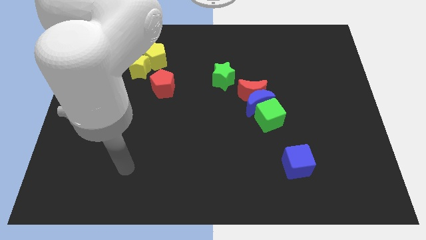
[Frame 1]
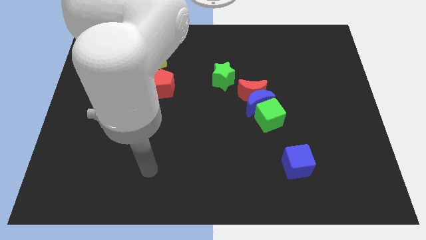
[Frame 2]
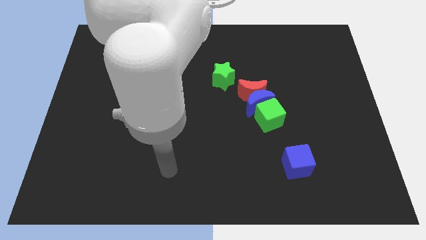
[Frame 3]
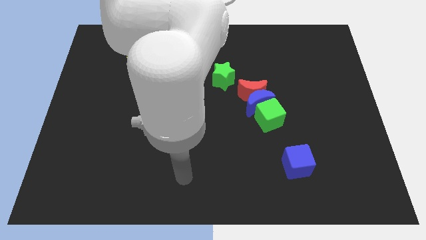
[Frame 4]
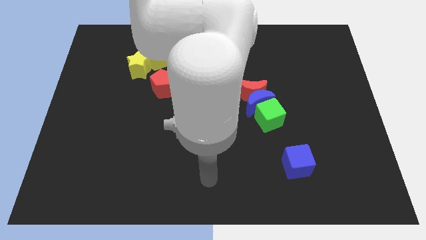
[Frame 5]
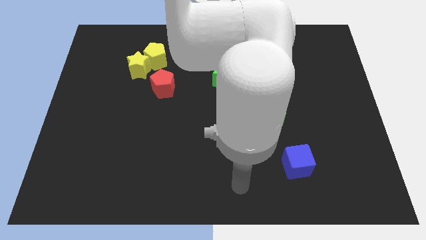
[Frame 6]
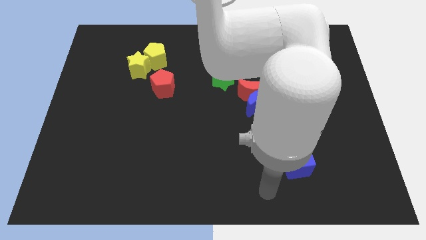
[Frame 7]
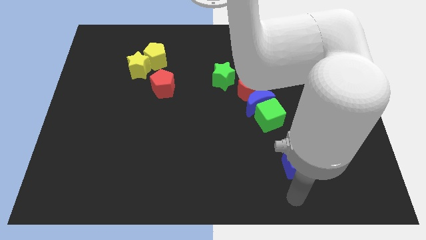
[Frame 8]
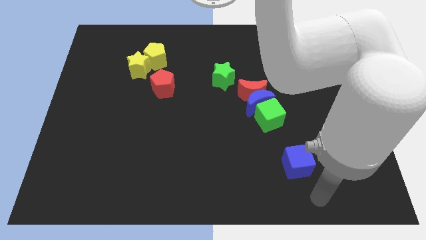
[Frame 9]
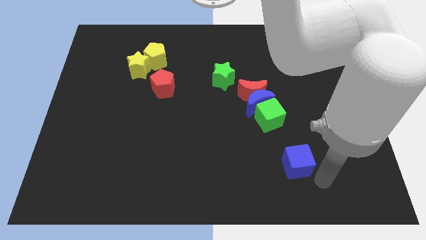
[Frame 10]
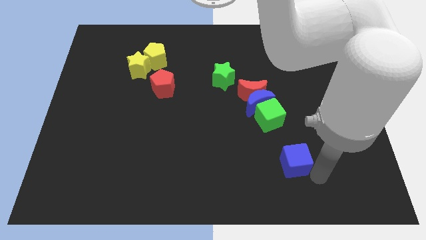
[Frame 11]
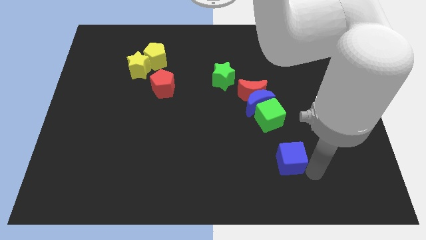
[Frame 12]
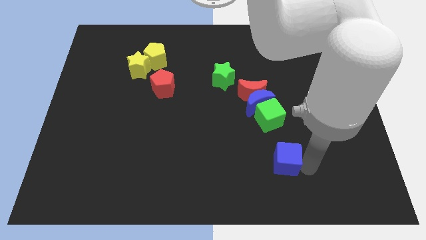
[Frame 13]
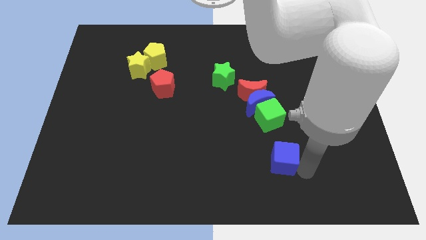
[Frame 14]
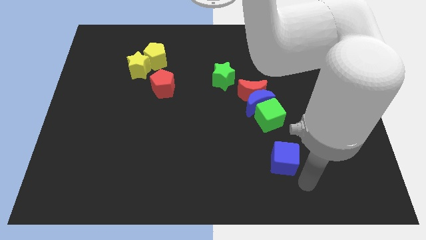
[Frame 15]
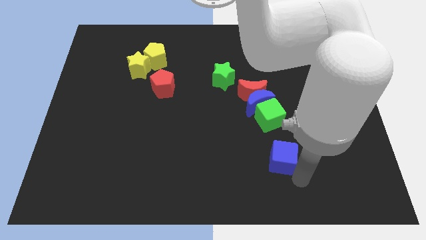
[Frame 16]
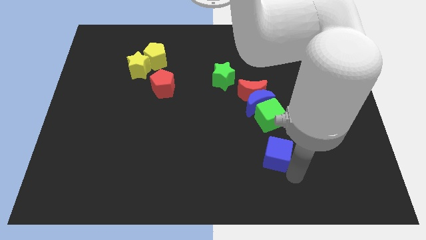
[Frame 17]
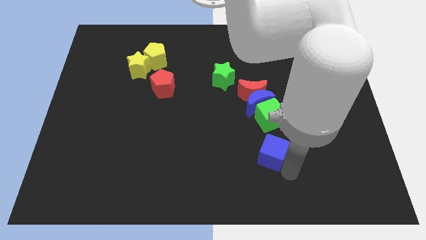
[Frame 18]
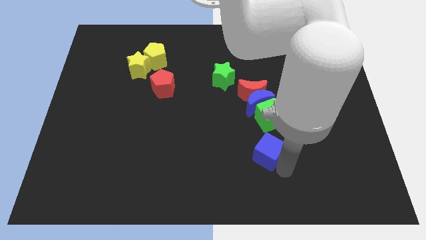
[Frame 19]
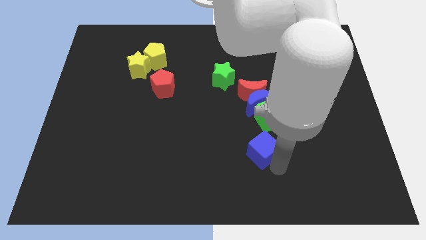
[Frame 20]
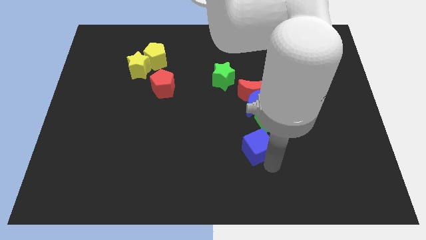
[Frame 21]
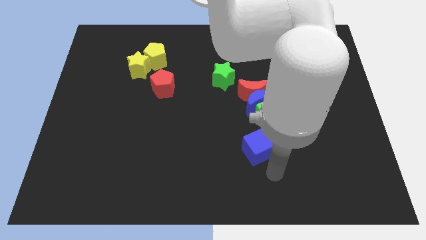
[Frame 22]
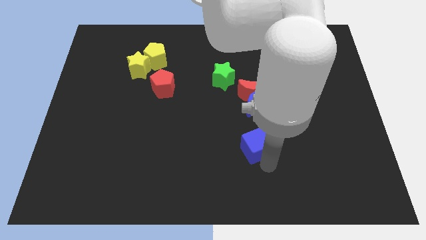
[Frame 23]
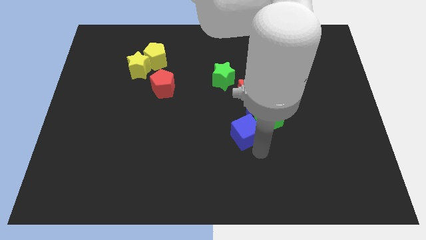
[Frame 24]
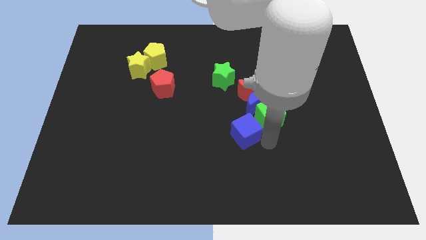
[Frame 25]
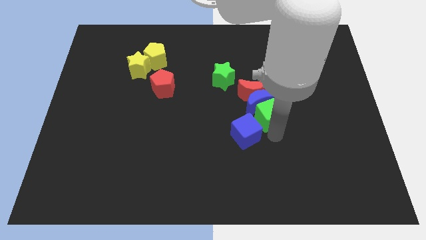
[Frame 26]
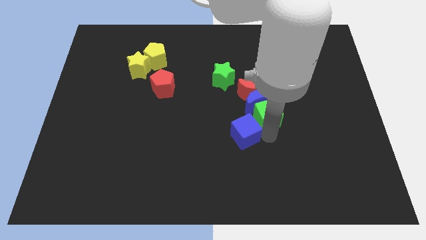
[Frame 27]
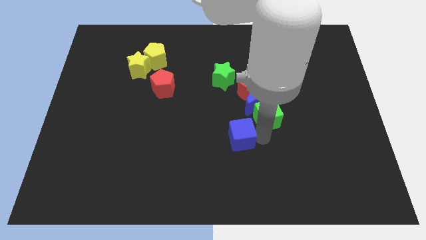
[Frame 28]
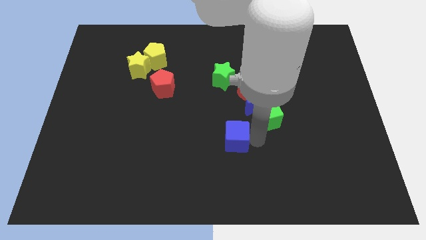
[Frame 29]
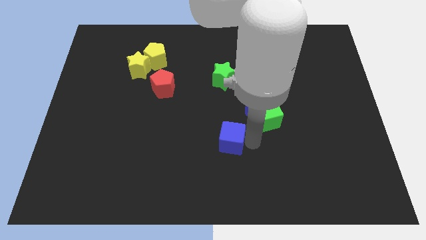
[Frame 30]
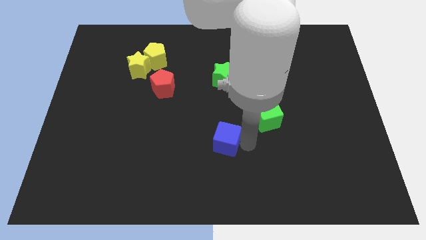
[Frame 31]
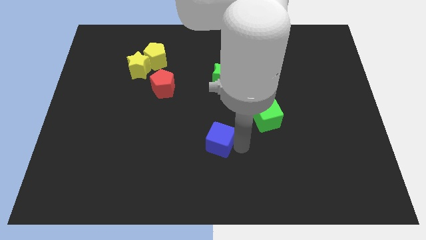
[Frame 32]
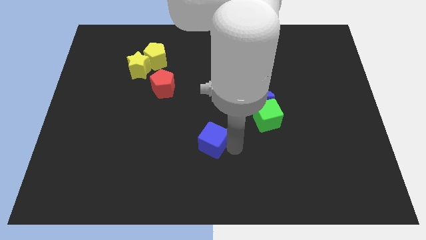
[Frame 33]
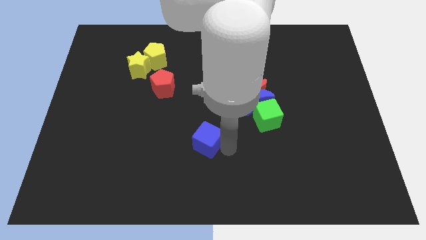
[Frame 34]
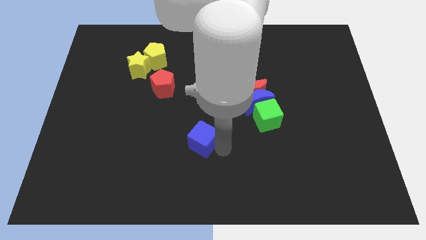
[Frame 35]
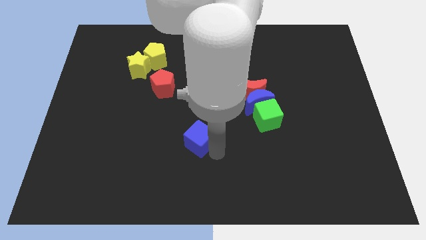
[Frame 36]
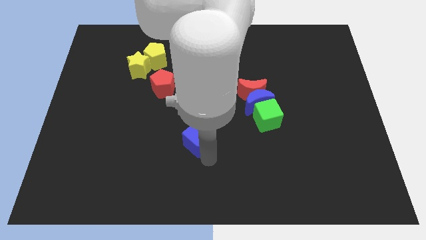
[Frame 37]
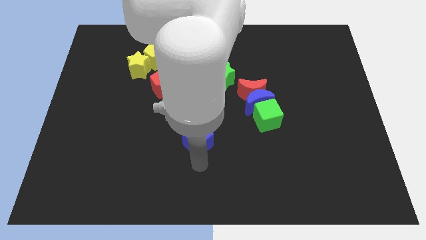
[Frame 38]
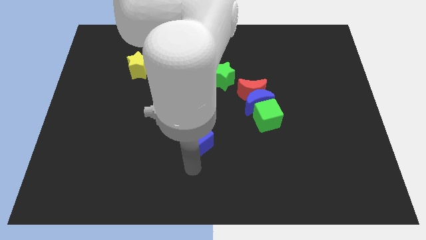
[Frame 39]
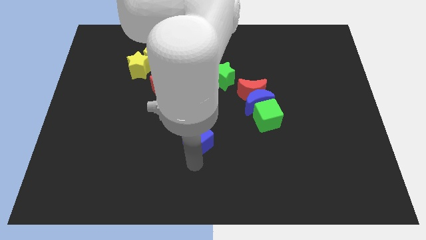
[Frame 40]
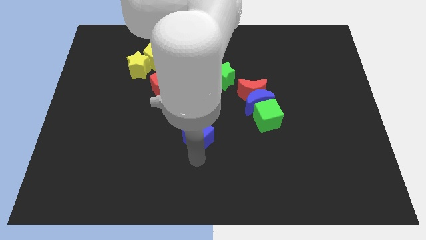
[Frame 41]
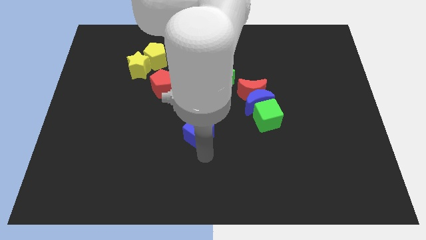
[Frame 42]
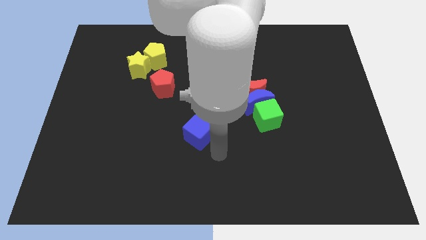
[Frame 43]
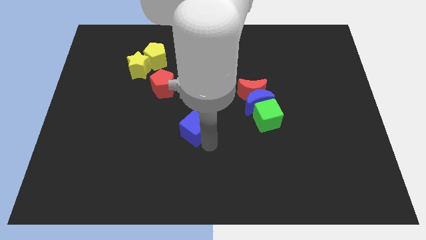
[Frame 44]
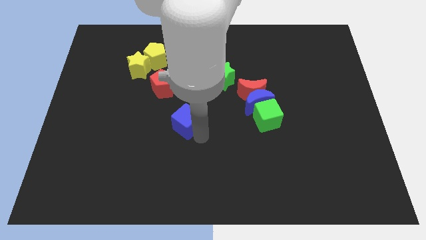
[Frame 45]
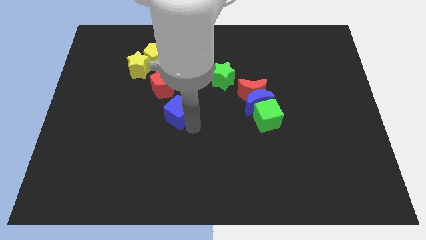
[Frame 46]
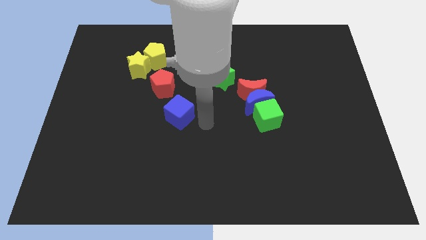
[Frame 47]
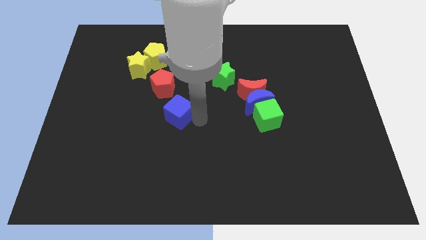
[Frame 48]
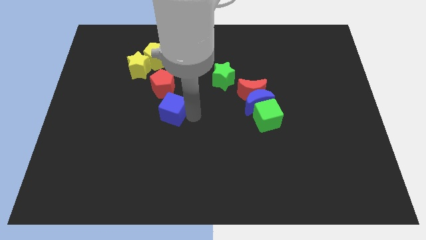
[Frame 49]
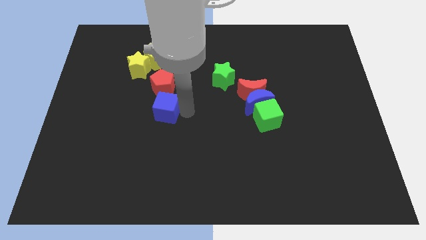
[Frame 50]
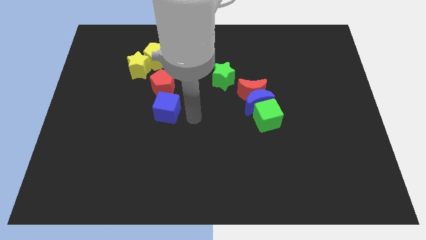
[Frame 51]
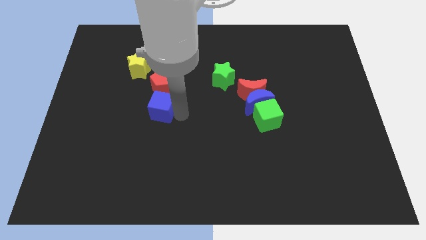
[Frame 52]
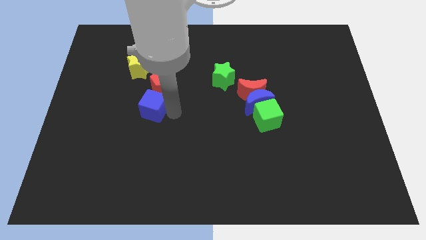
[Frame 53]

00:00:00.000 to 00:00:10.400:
push the blue cube to the bottom left of the red pentagon
